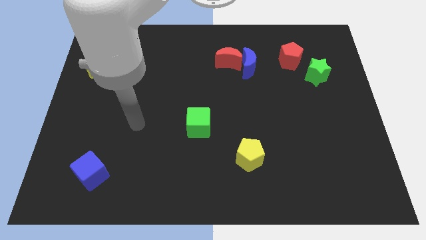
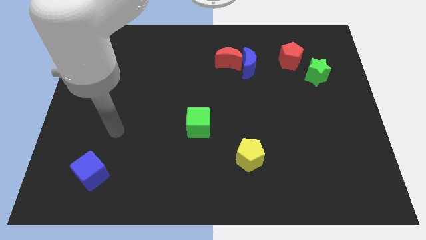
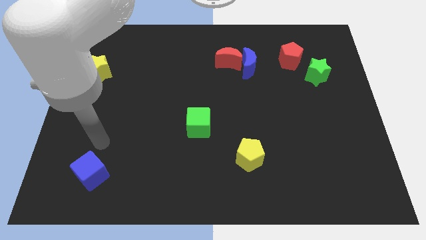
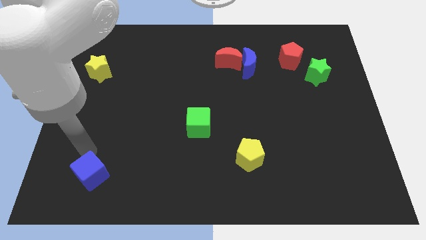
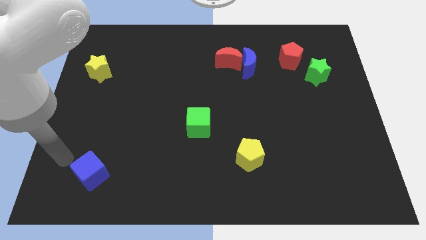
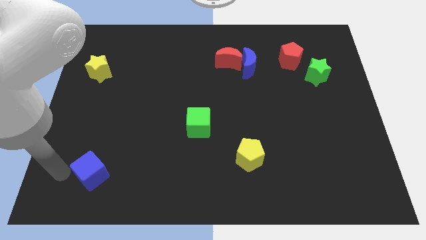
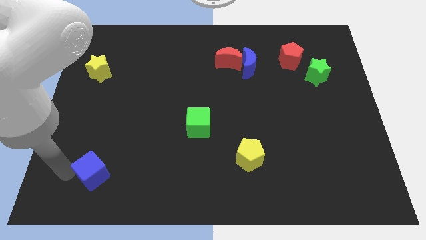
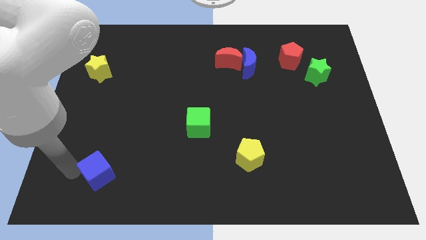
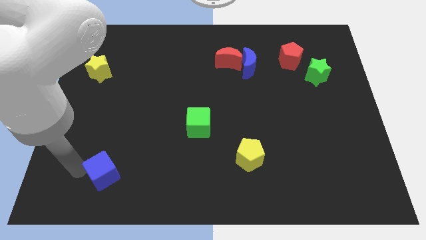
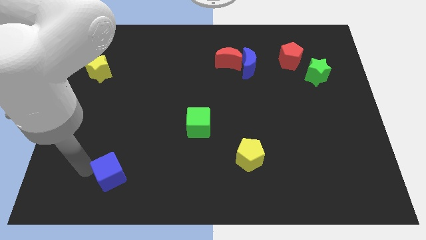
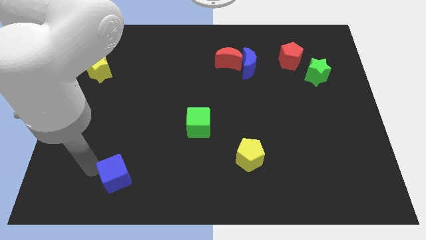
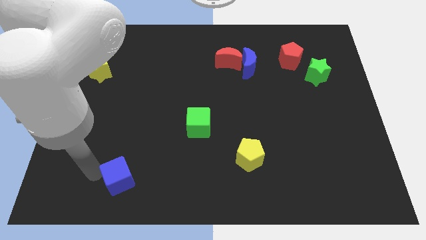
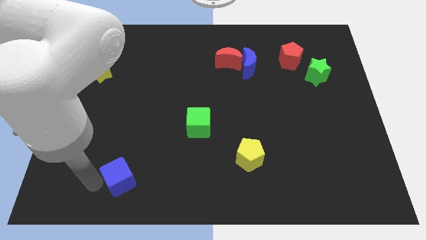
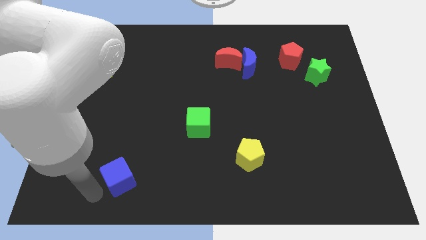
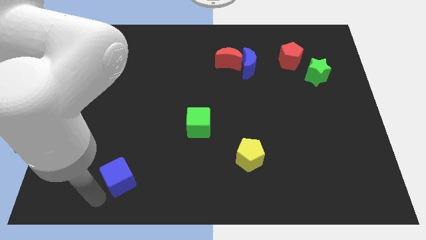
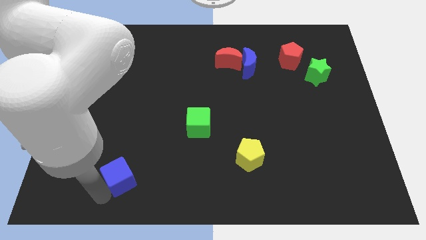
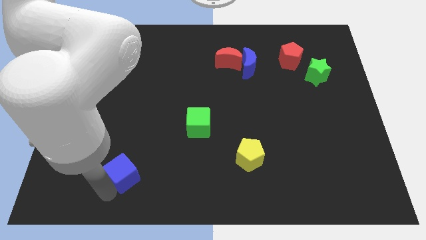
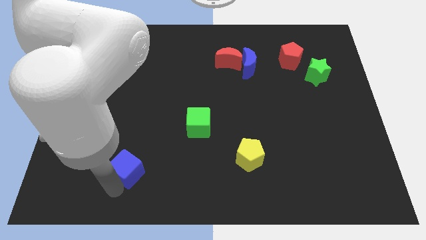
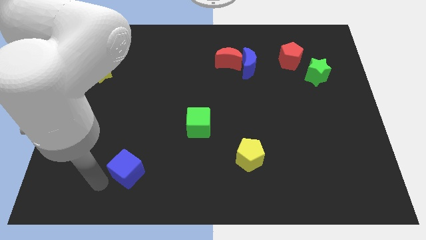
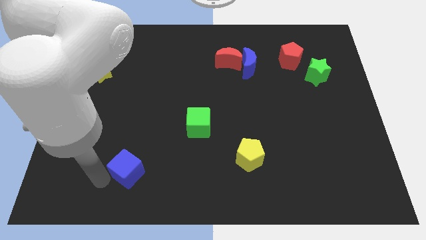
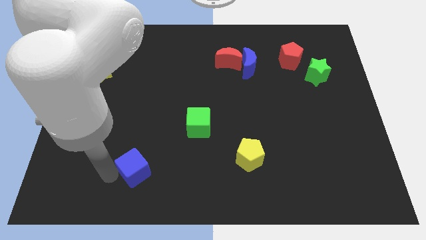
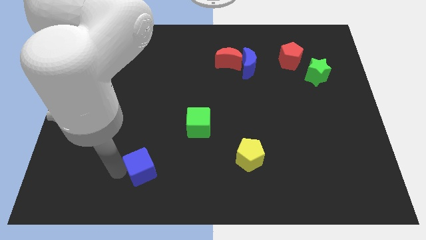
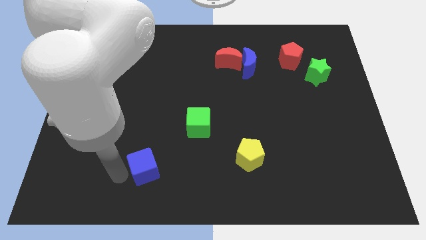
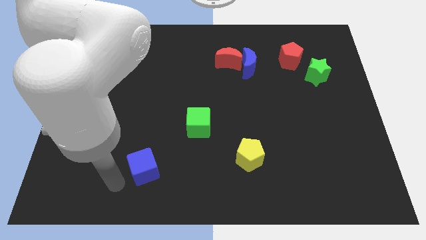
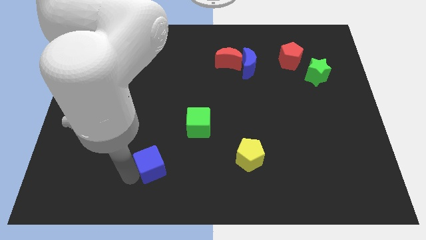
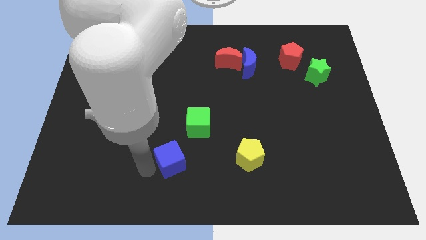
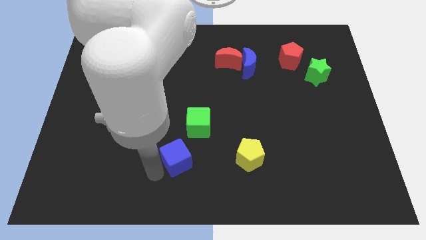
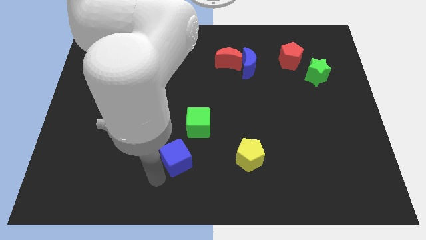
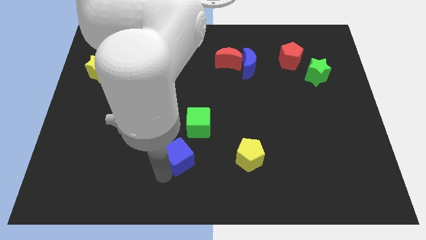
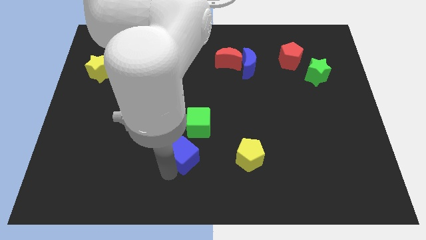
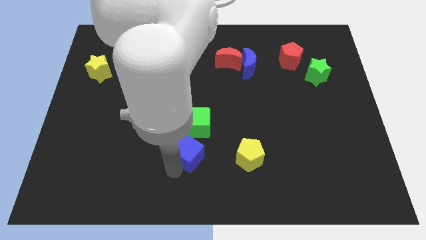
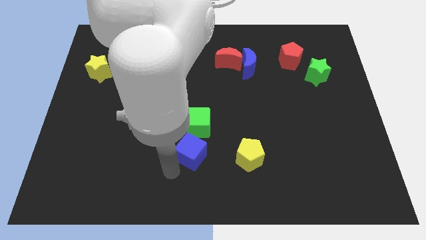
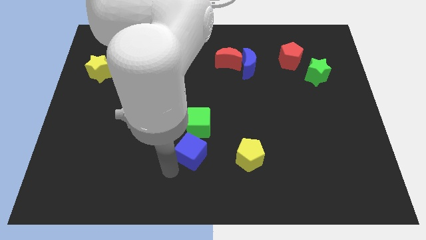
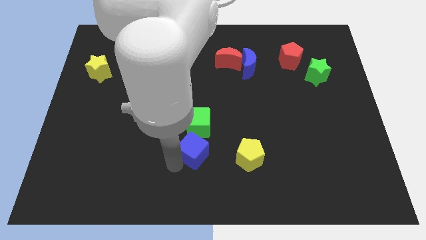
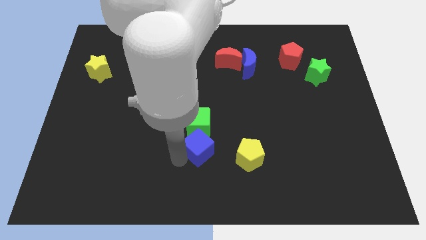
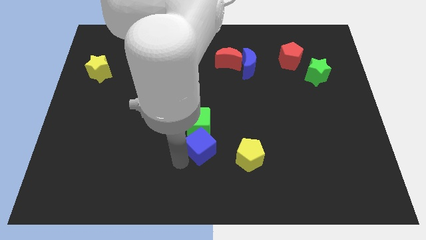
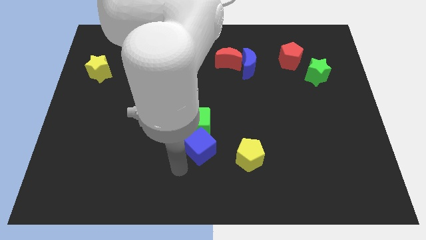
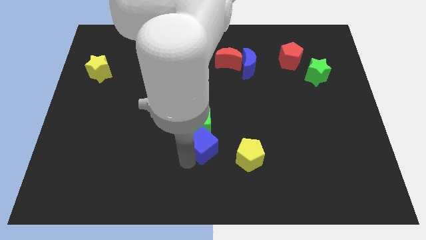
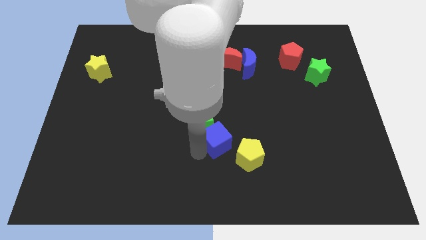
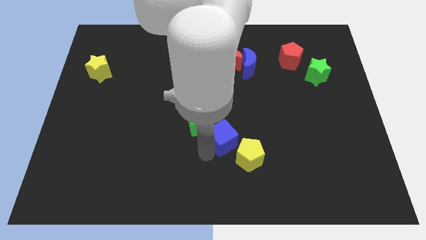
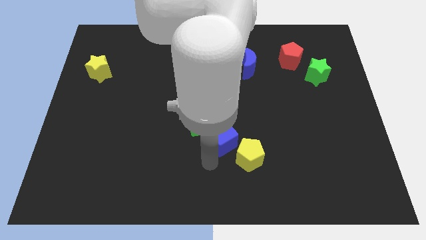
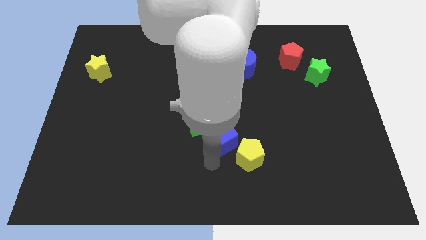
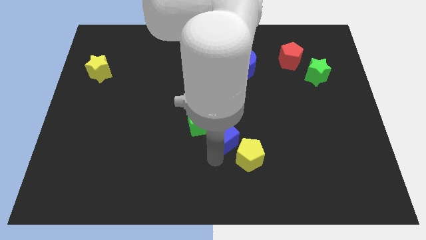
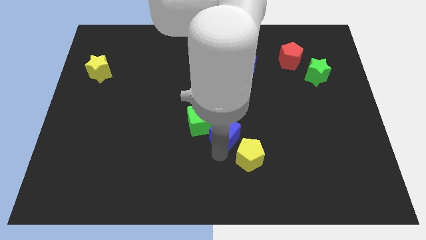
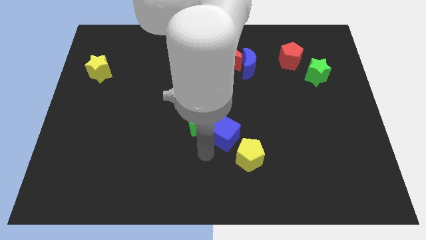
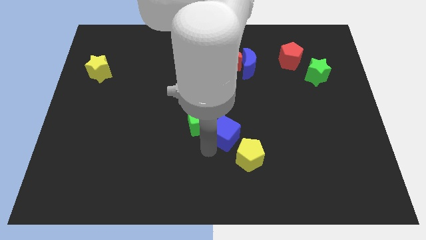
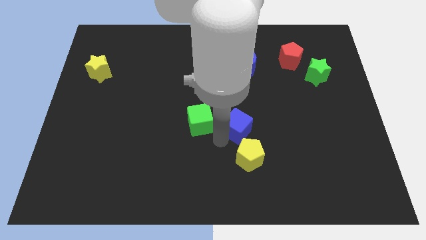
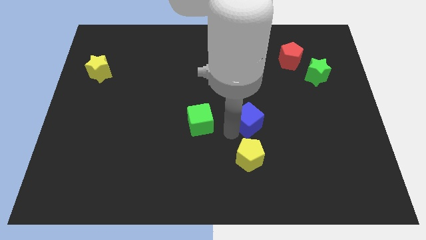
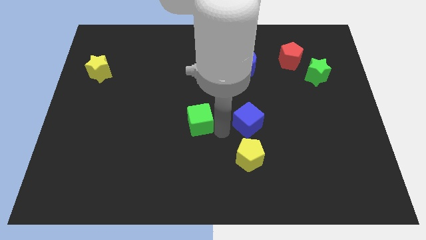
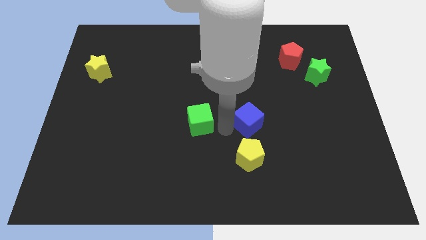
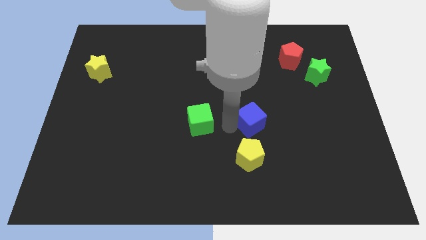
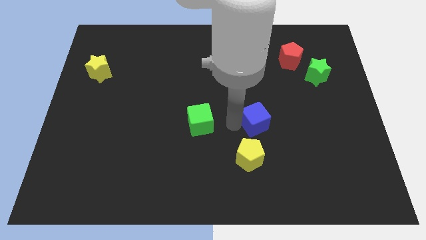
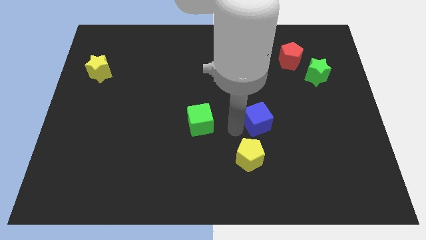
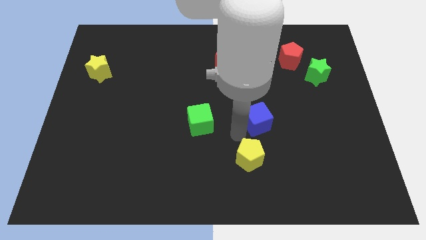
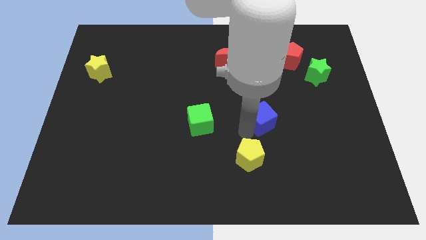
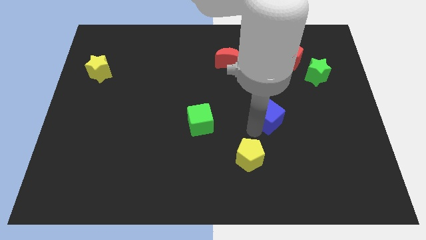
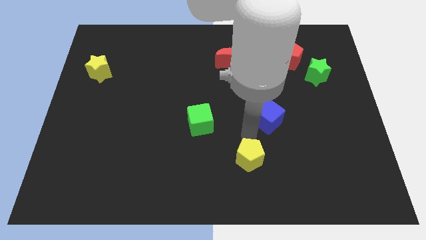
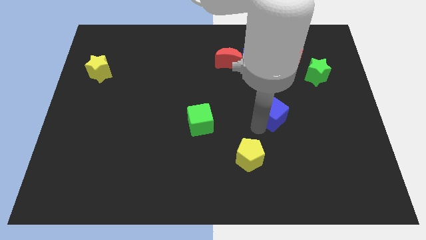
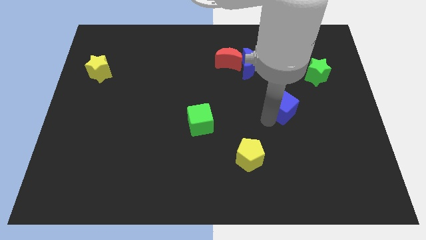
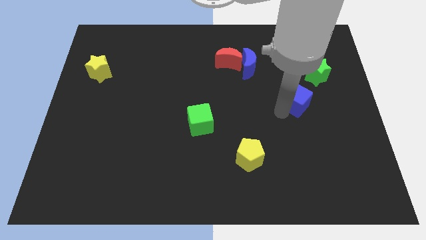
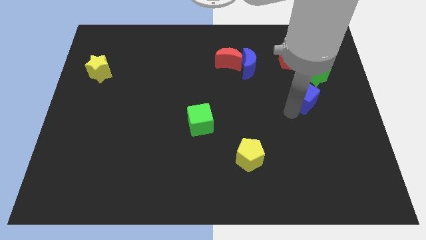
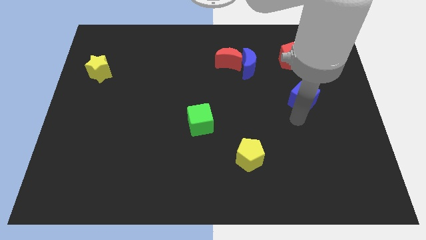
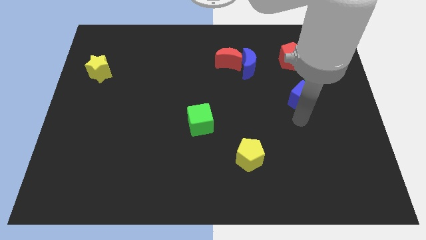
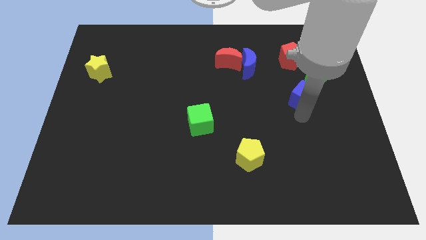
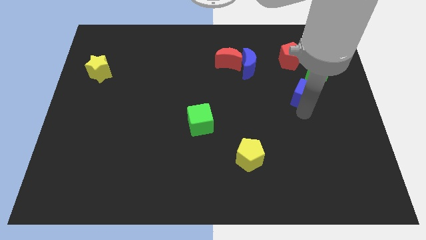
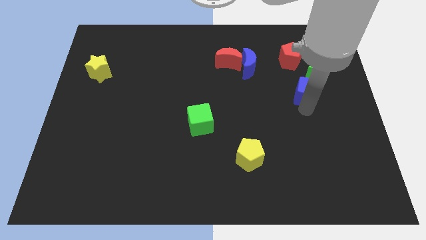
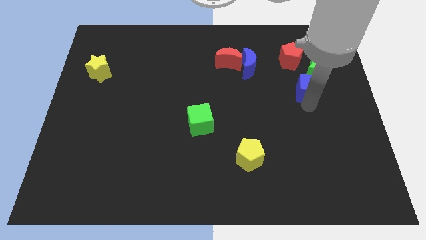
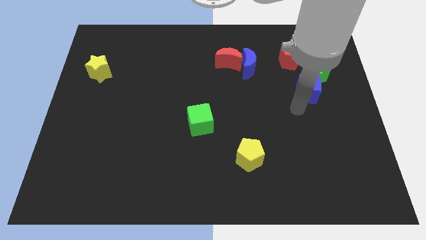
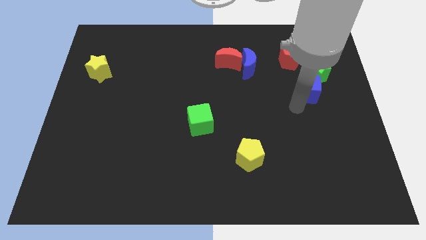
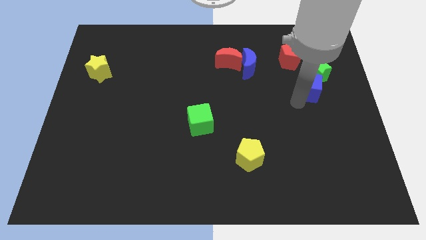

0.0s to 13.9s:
push the blue cube close to the green star

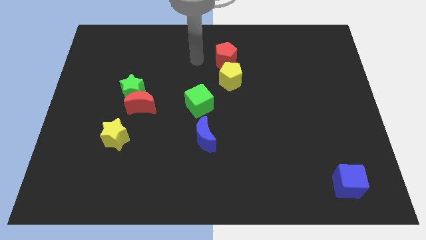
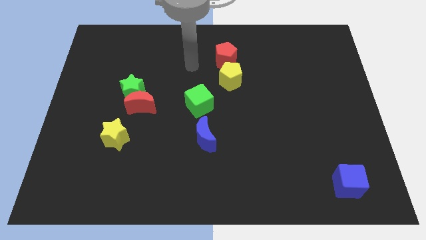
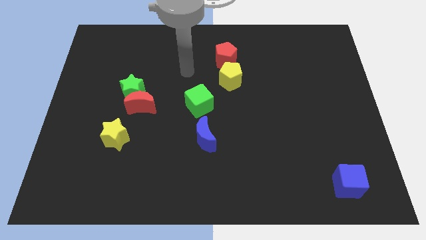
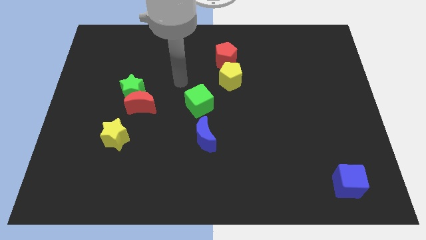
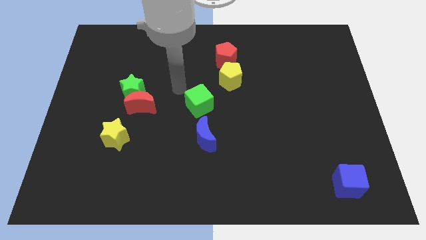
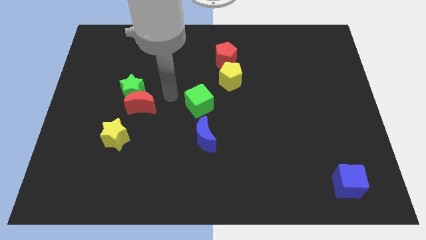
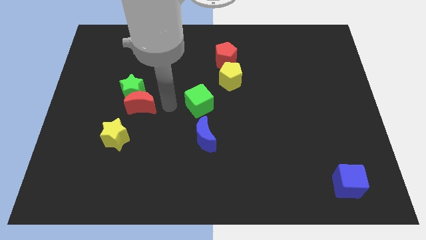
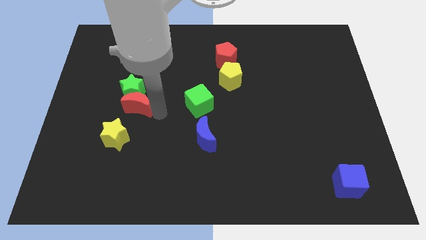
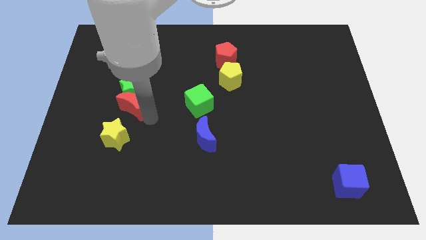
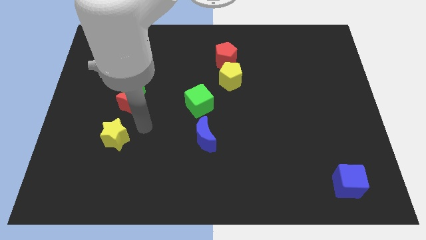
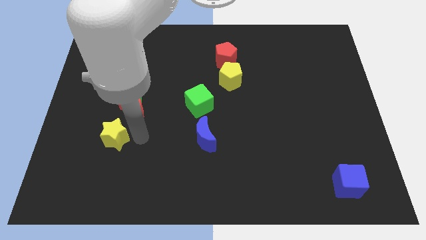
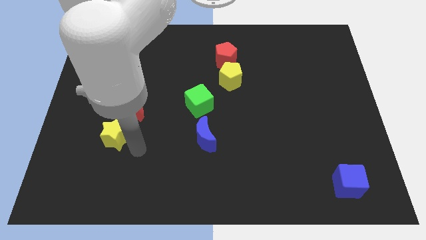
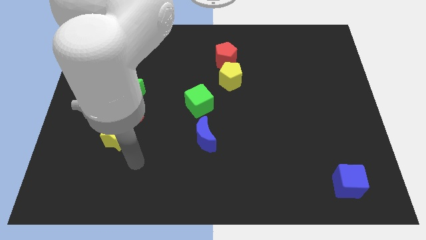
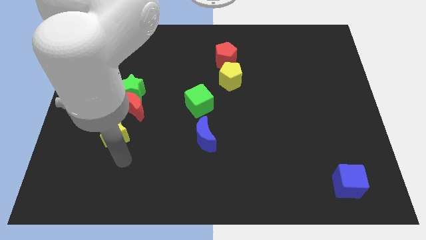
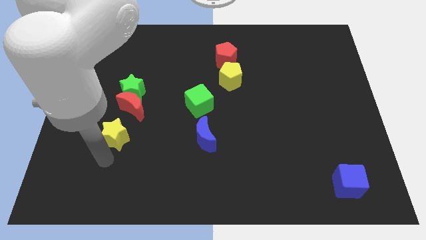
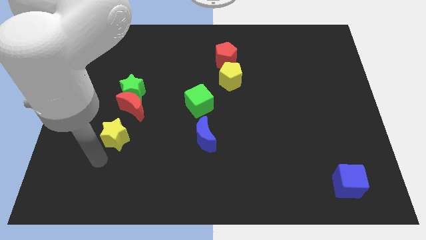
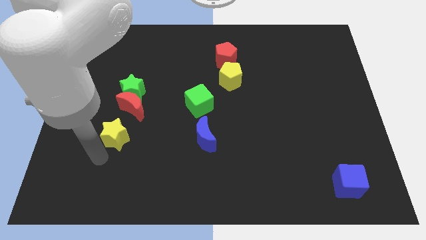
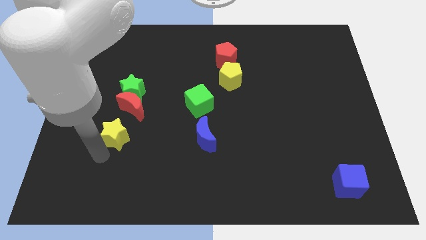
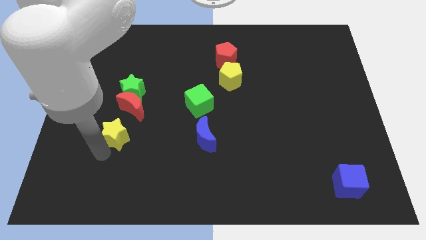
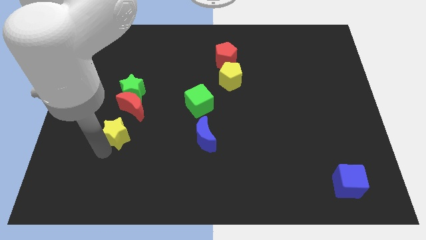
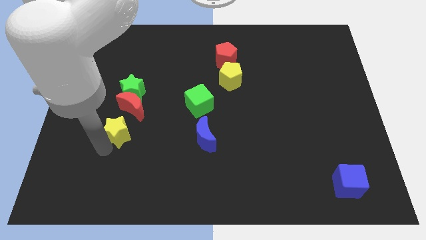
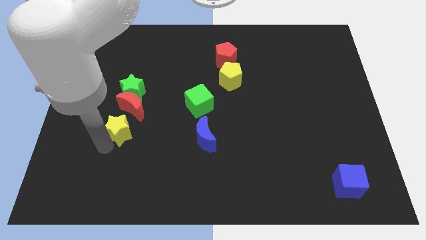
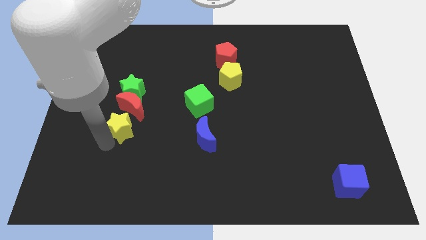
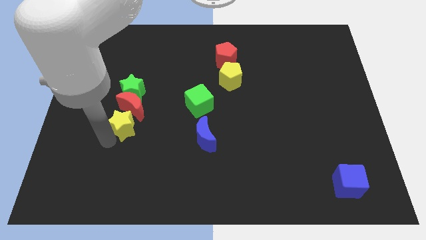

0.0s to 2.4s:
push the yellow star towards the red moon
